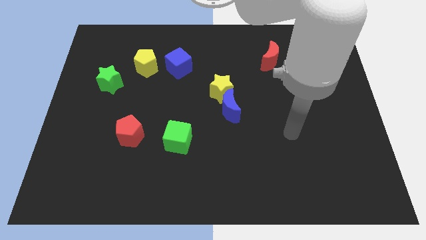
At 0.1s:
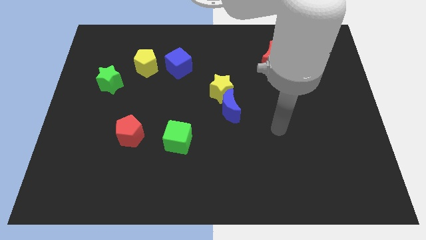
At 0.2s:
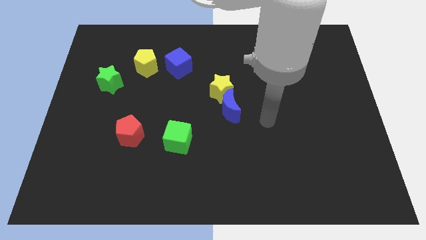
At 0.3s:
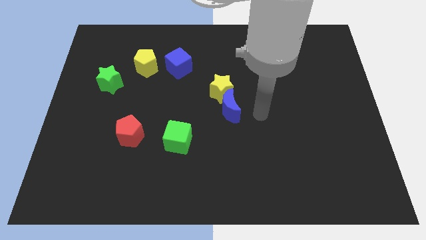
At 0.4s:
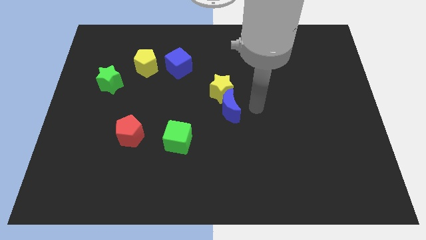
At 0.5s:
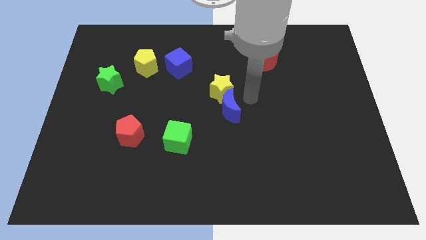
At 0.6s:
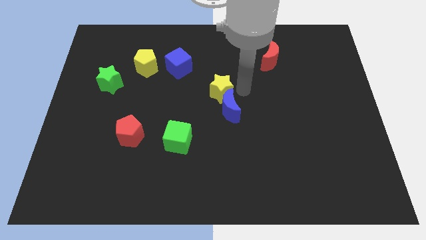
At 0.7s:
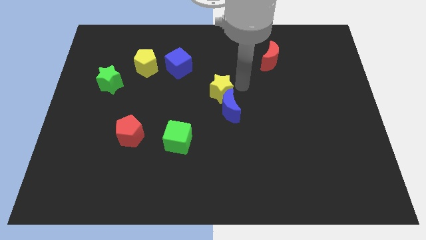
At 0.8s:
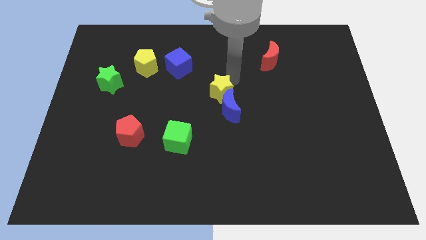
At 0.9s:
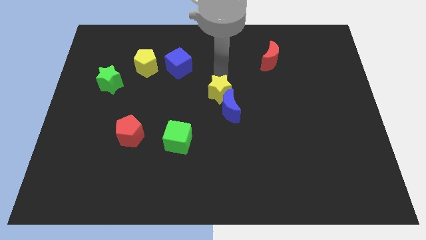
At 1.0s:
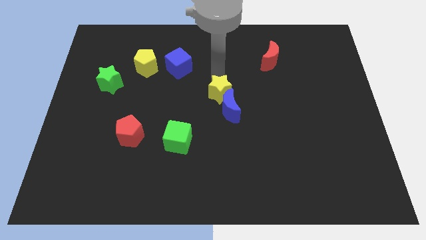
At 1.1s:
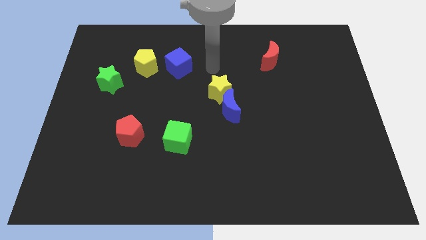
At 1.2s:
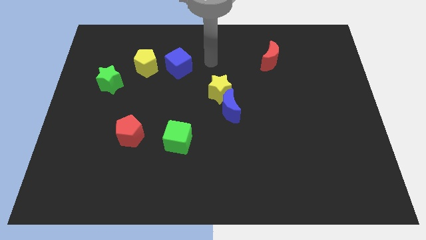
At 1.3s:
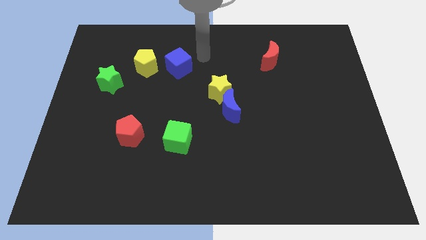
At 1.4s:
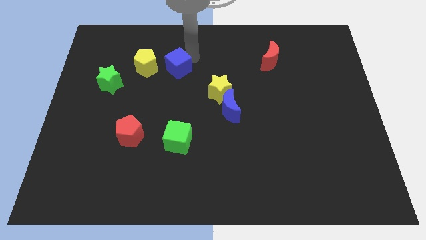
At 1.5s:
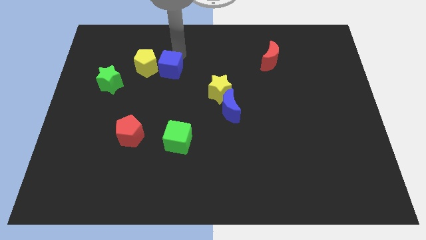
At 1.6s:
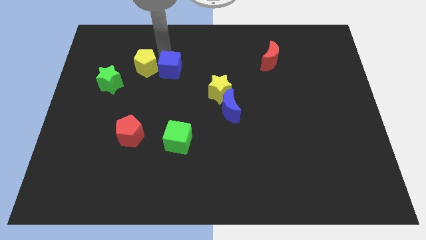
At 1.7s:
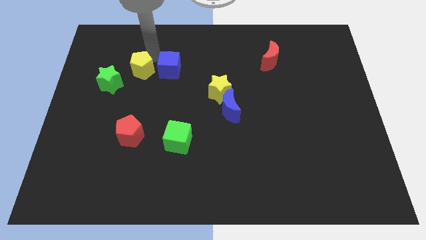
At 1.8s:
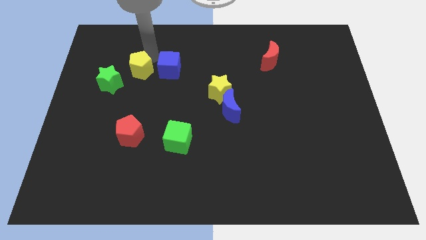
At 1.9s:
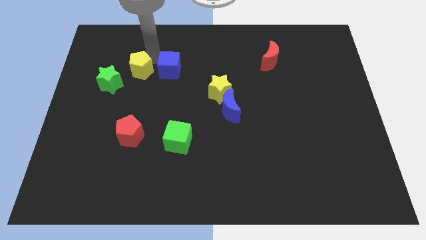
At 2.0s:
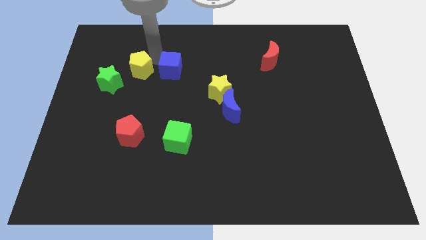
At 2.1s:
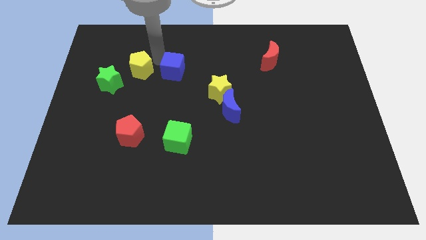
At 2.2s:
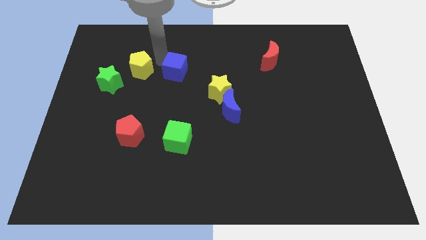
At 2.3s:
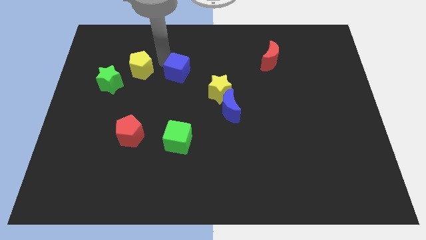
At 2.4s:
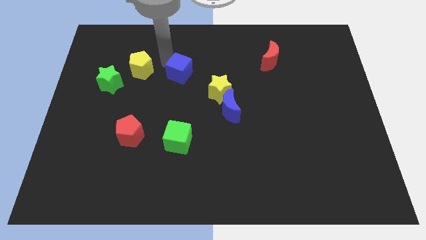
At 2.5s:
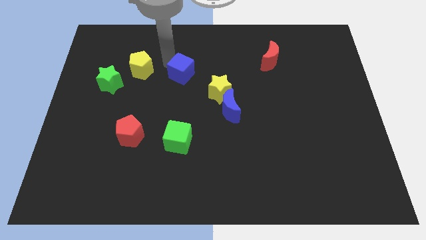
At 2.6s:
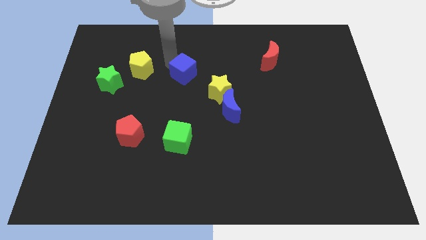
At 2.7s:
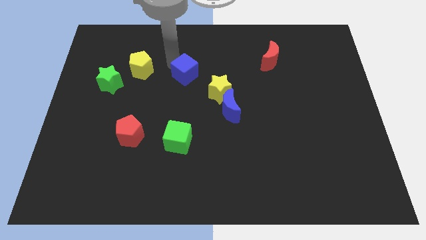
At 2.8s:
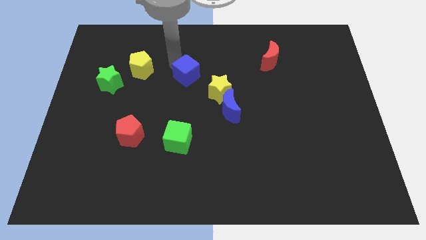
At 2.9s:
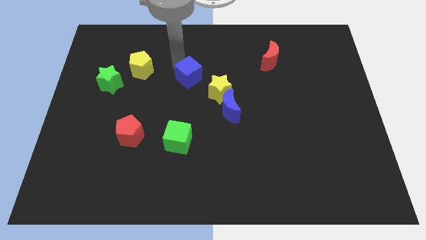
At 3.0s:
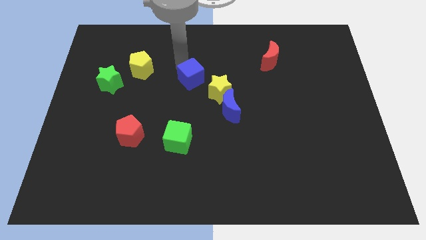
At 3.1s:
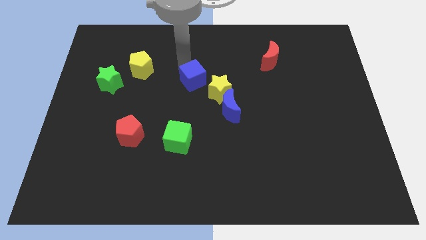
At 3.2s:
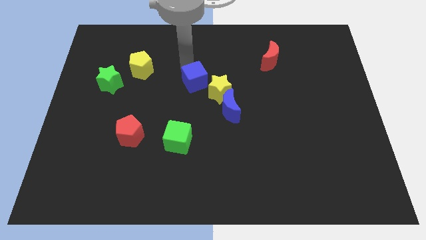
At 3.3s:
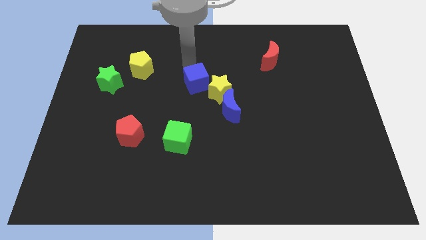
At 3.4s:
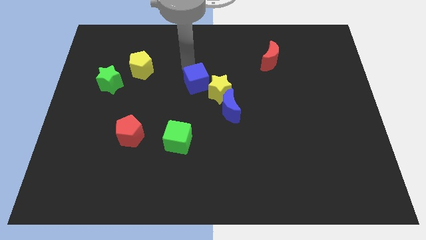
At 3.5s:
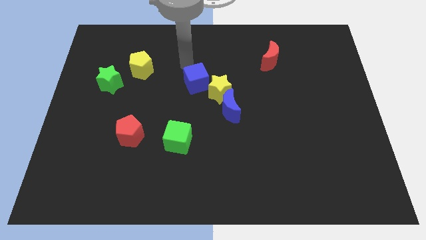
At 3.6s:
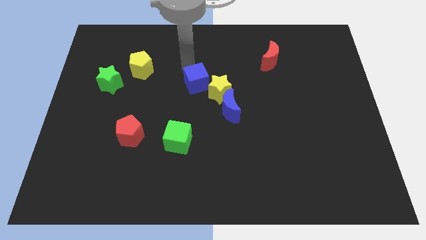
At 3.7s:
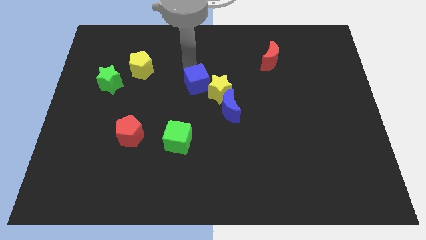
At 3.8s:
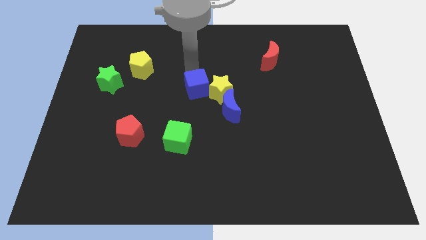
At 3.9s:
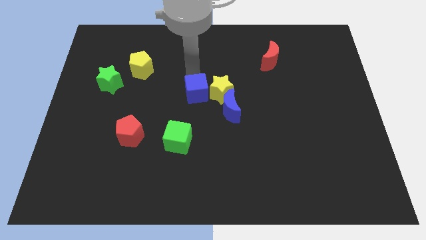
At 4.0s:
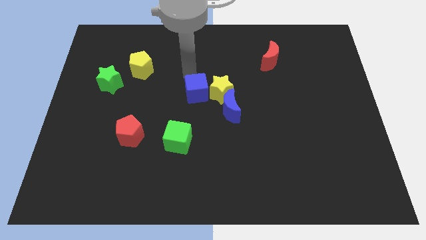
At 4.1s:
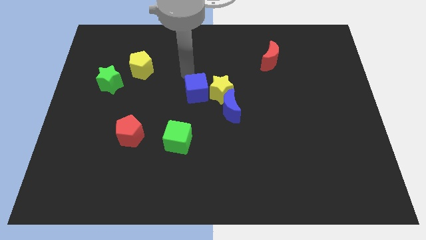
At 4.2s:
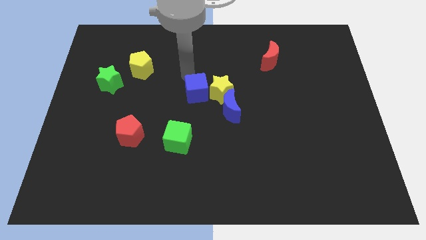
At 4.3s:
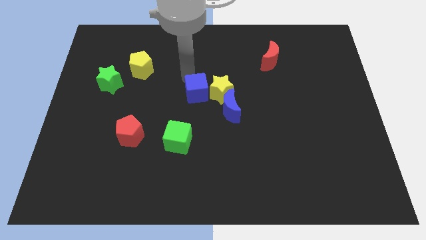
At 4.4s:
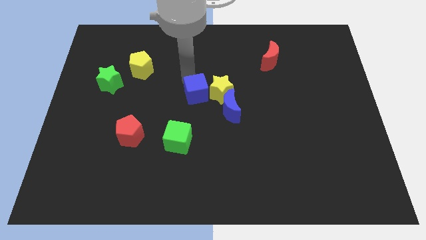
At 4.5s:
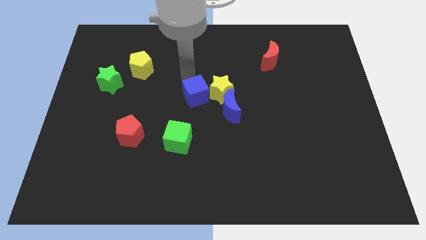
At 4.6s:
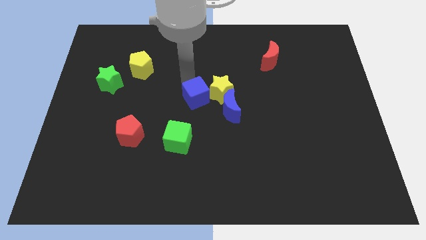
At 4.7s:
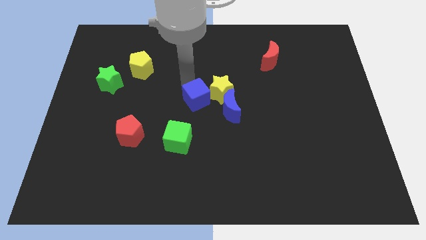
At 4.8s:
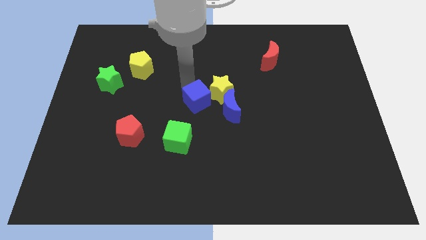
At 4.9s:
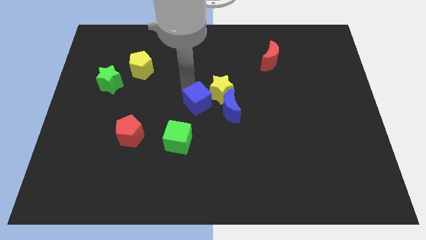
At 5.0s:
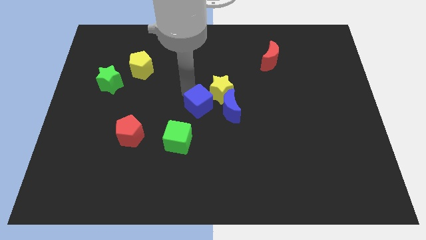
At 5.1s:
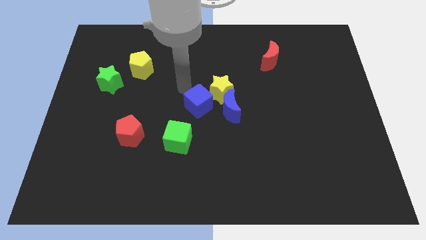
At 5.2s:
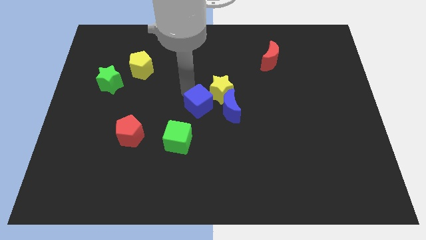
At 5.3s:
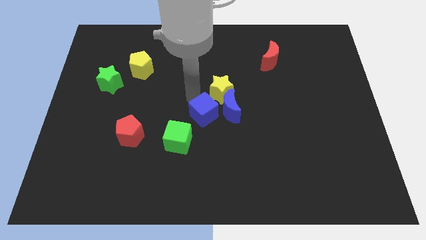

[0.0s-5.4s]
push the blue cube to the bottom side of the yellow star
